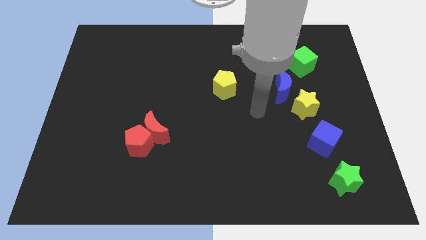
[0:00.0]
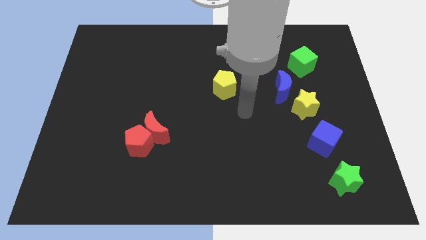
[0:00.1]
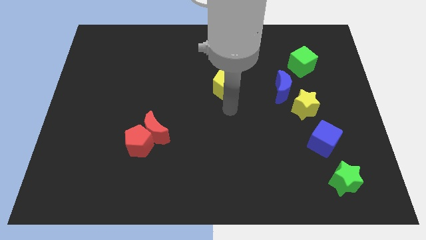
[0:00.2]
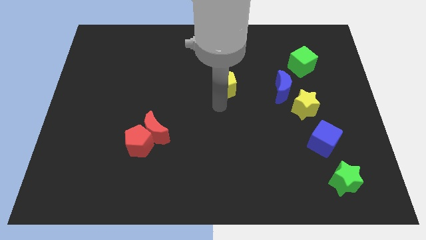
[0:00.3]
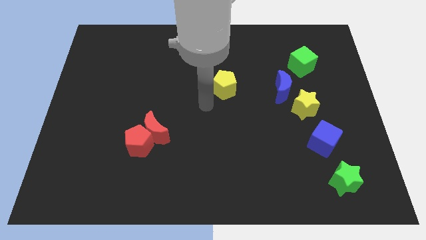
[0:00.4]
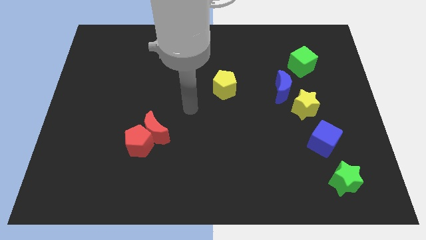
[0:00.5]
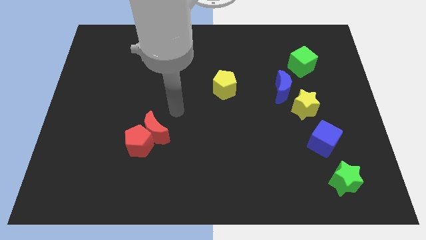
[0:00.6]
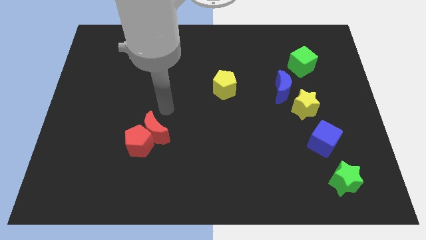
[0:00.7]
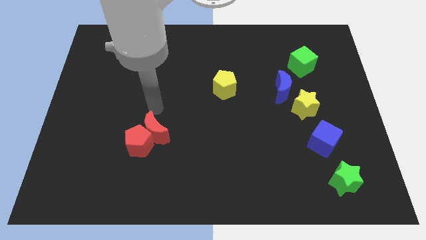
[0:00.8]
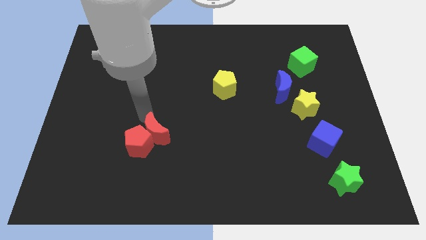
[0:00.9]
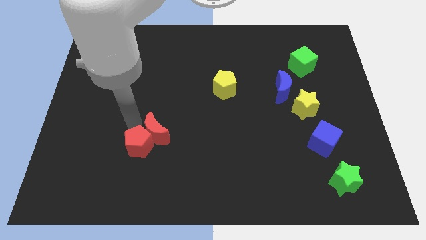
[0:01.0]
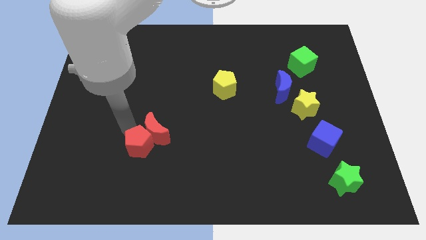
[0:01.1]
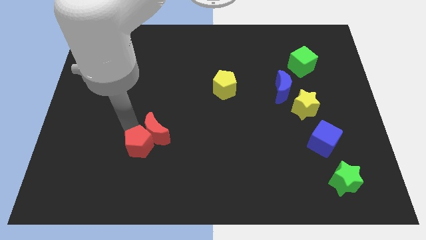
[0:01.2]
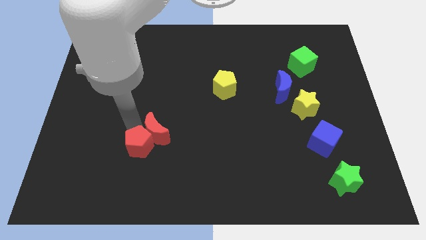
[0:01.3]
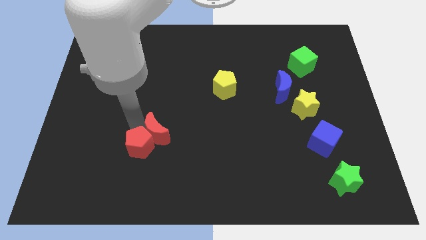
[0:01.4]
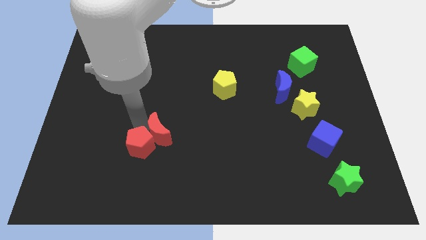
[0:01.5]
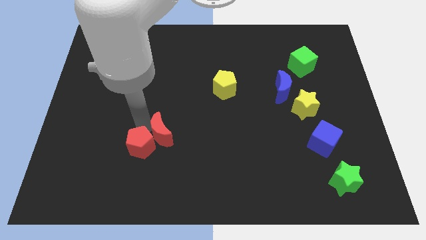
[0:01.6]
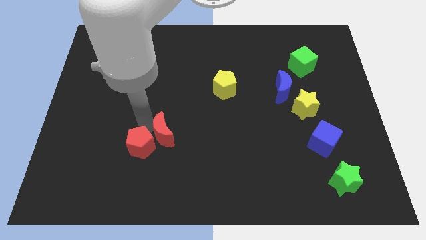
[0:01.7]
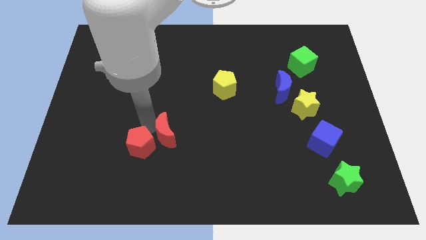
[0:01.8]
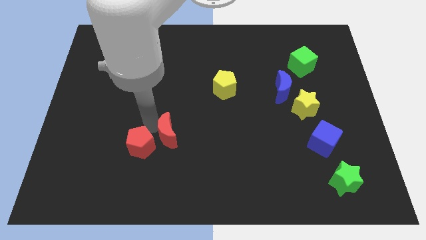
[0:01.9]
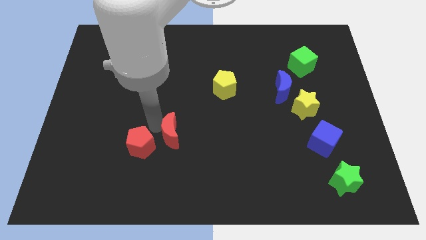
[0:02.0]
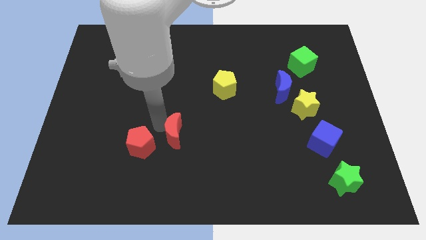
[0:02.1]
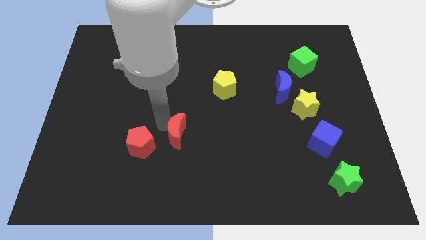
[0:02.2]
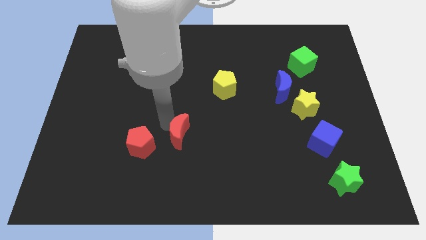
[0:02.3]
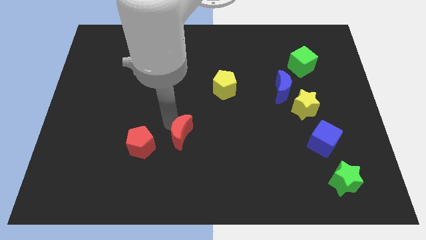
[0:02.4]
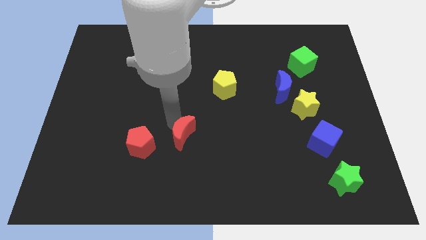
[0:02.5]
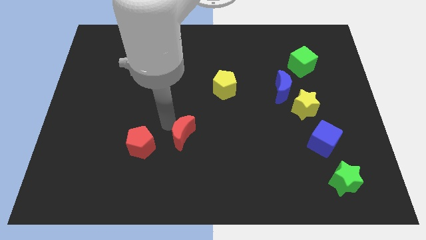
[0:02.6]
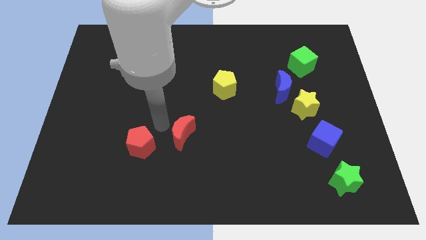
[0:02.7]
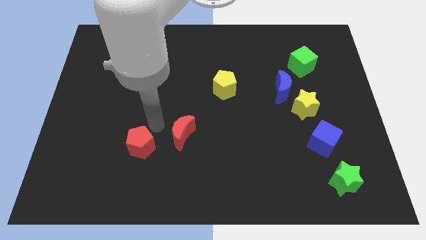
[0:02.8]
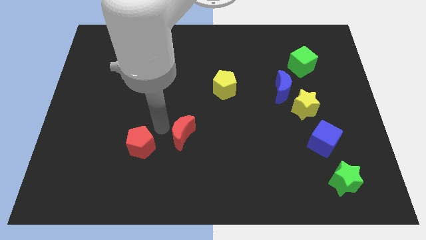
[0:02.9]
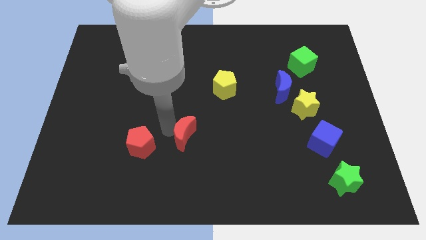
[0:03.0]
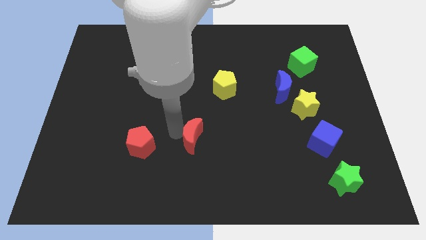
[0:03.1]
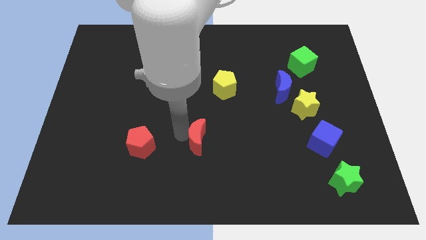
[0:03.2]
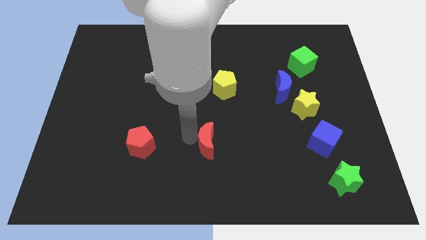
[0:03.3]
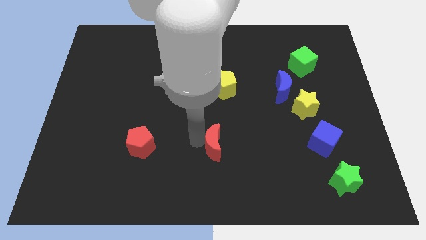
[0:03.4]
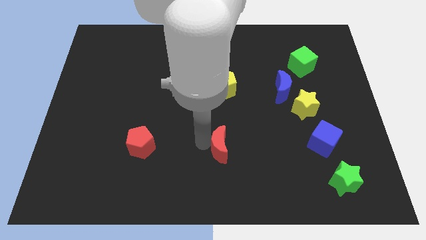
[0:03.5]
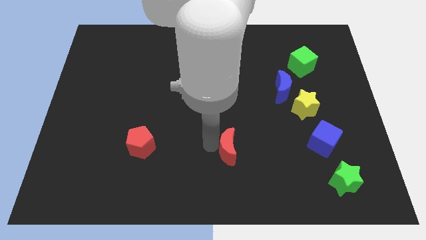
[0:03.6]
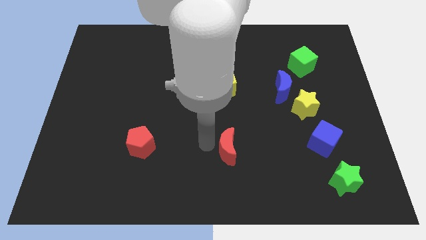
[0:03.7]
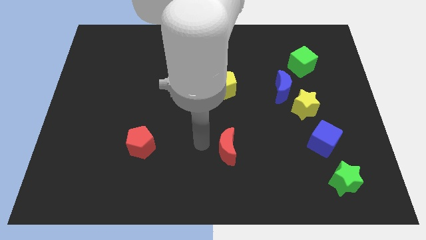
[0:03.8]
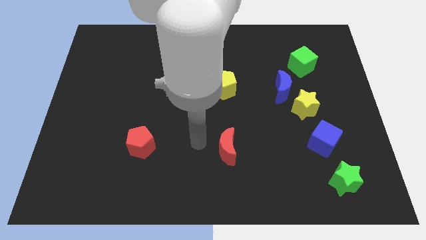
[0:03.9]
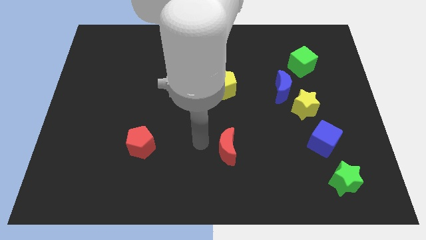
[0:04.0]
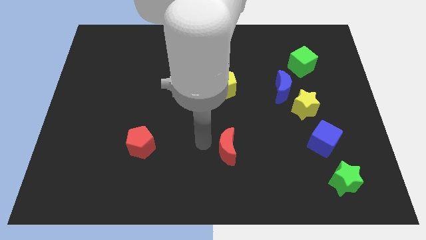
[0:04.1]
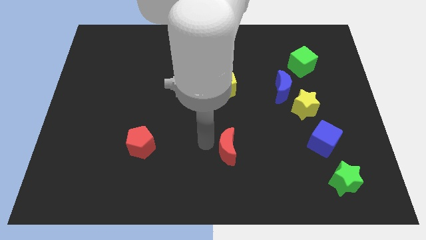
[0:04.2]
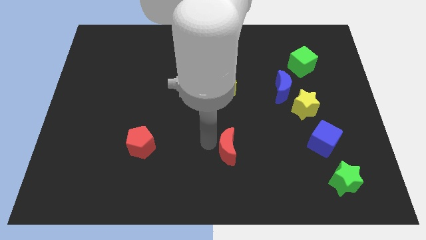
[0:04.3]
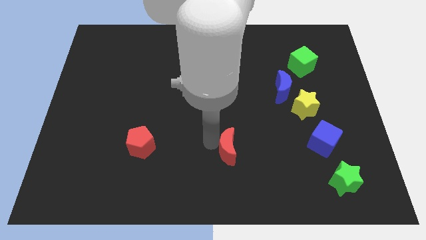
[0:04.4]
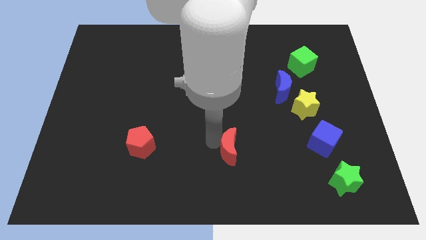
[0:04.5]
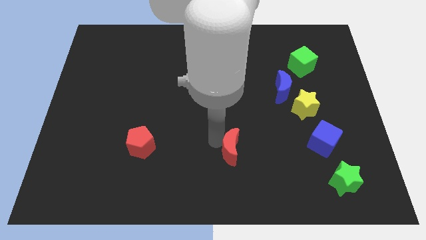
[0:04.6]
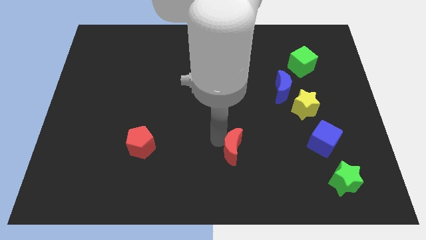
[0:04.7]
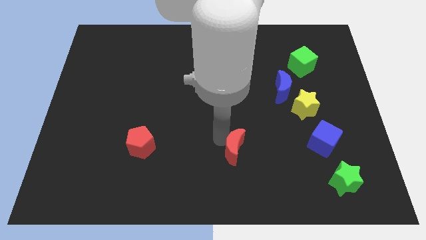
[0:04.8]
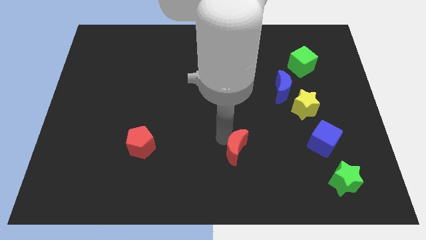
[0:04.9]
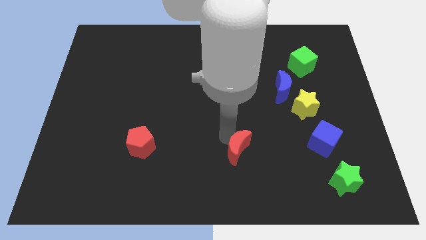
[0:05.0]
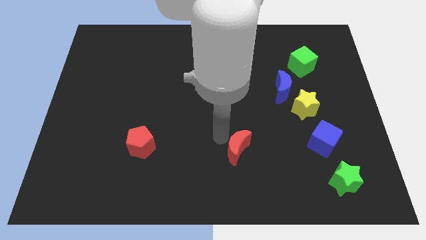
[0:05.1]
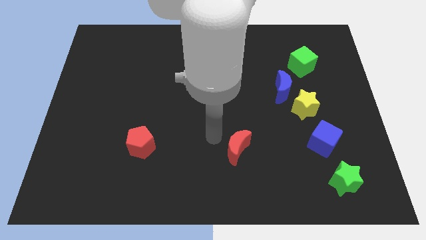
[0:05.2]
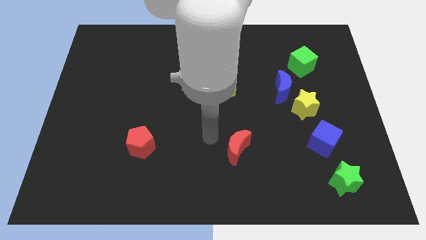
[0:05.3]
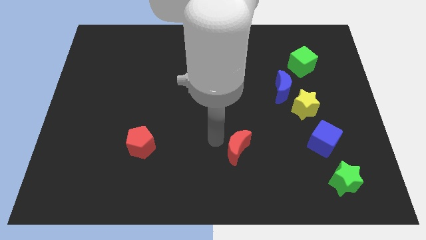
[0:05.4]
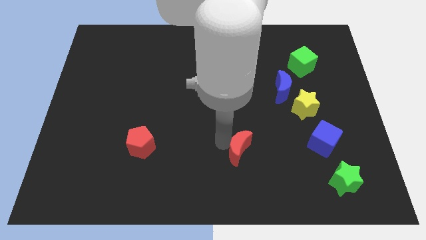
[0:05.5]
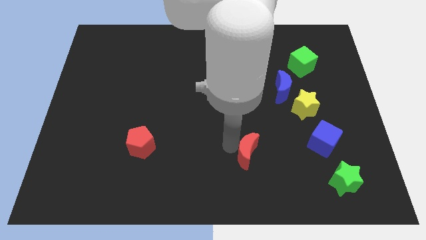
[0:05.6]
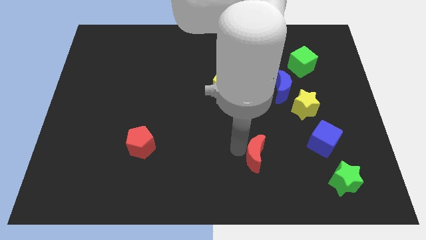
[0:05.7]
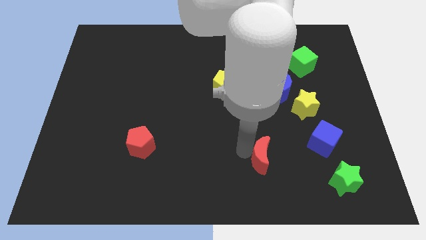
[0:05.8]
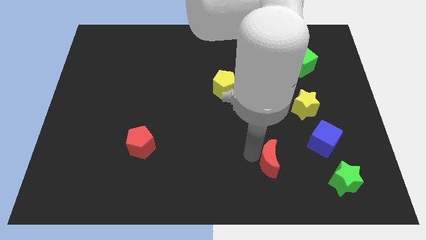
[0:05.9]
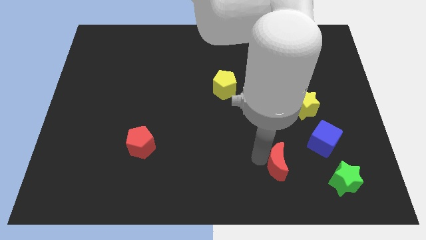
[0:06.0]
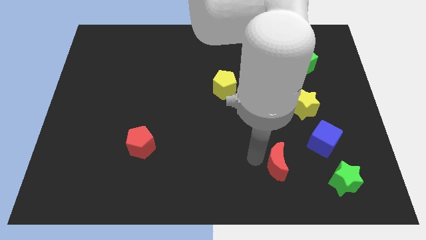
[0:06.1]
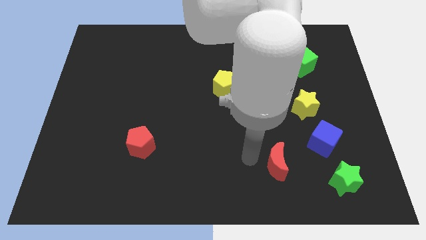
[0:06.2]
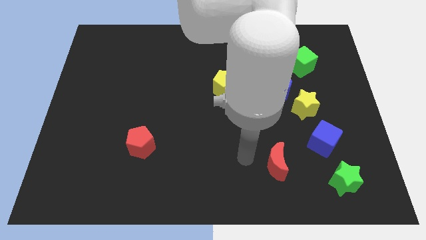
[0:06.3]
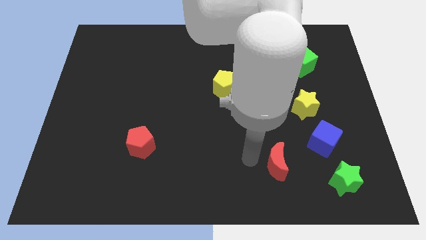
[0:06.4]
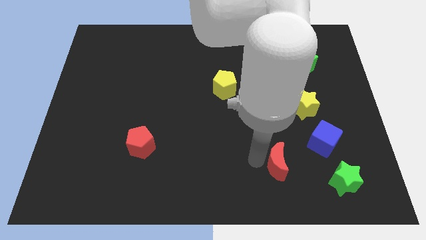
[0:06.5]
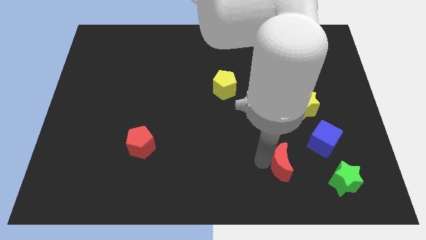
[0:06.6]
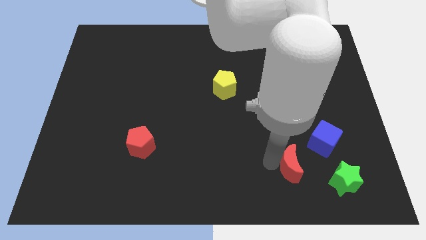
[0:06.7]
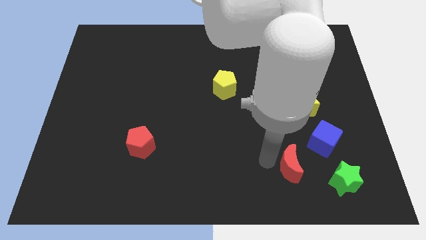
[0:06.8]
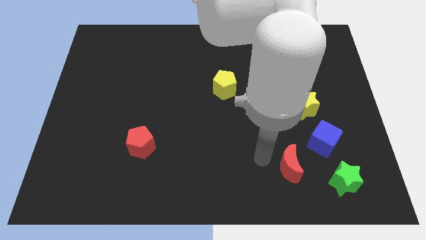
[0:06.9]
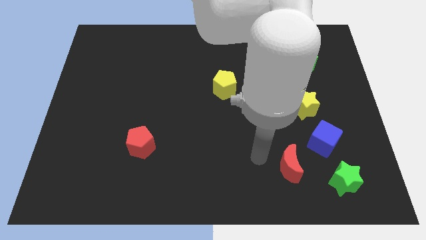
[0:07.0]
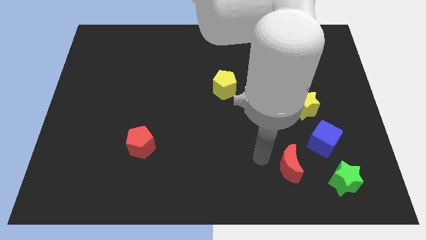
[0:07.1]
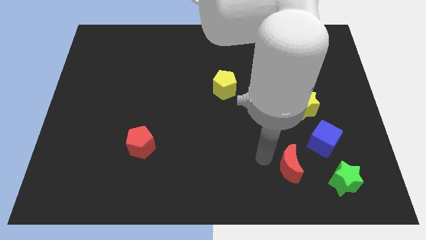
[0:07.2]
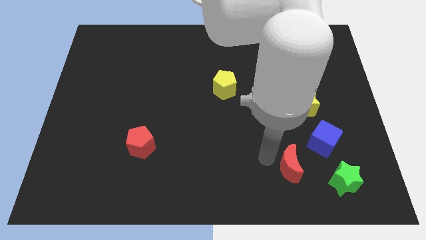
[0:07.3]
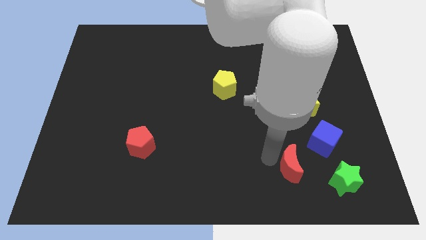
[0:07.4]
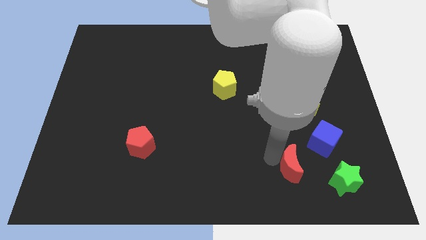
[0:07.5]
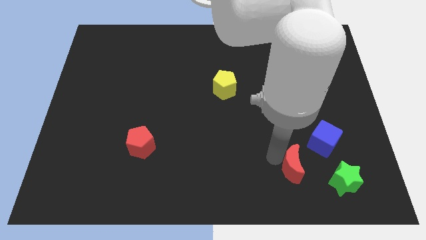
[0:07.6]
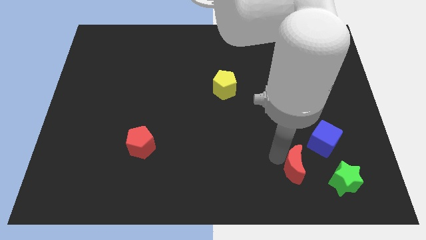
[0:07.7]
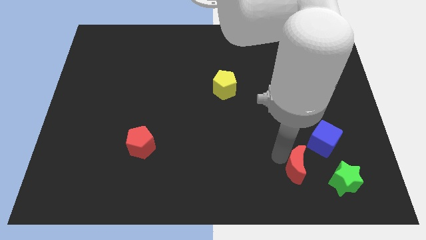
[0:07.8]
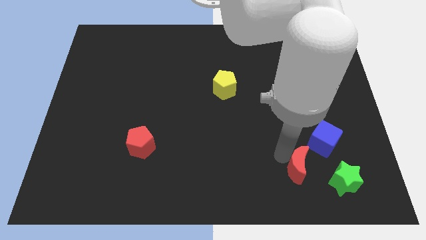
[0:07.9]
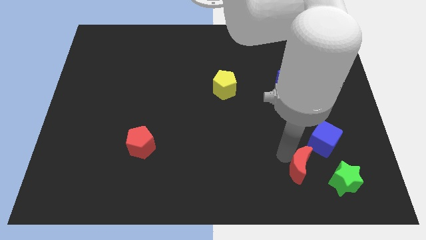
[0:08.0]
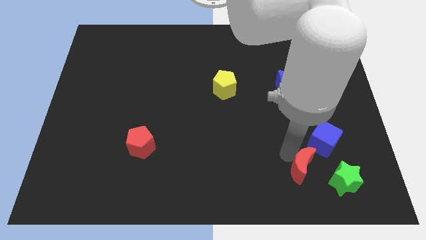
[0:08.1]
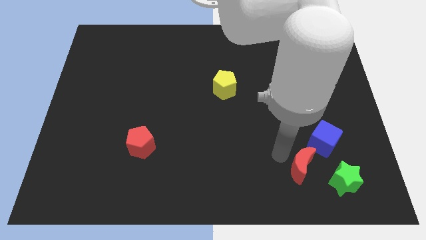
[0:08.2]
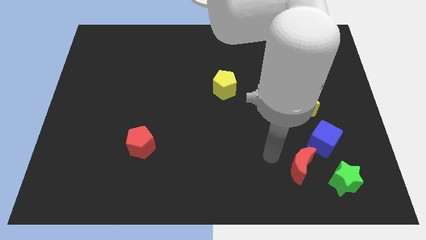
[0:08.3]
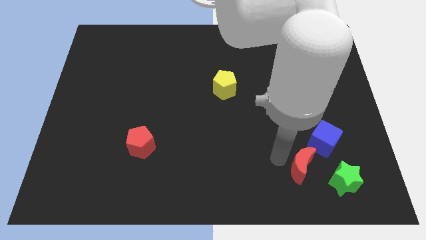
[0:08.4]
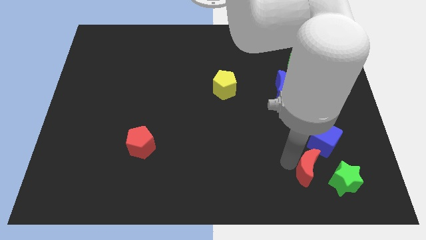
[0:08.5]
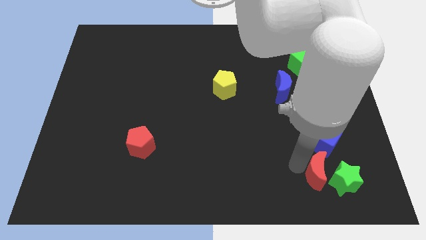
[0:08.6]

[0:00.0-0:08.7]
push the red moon to the green star
